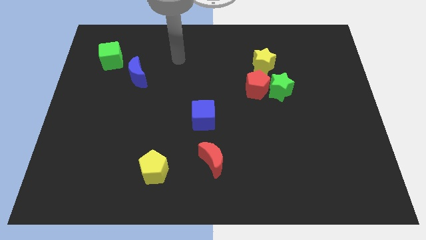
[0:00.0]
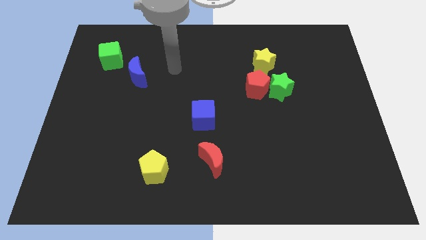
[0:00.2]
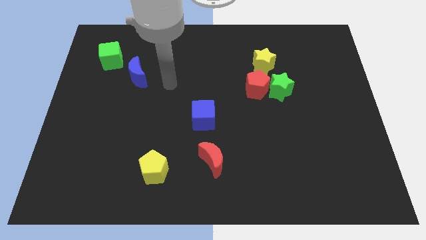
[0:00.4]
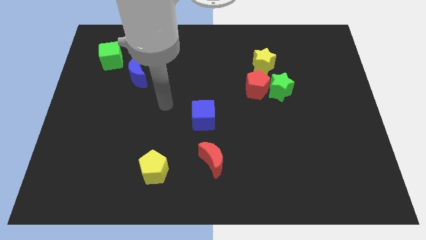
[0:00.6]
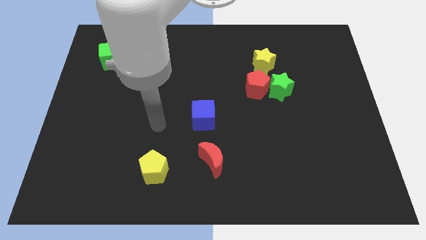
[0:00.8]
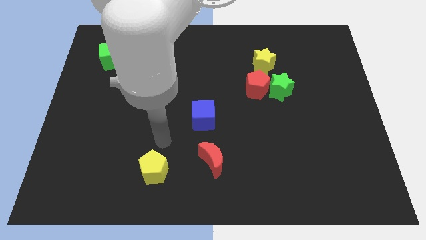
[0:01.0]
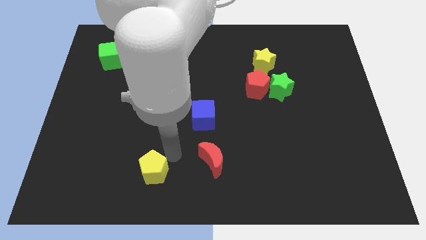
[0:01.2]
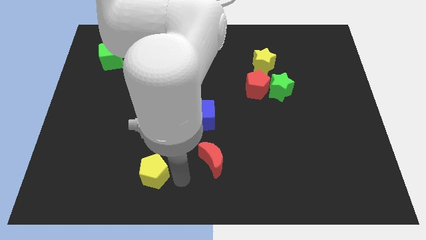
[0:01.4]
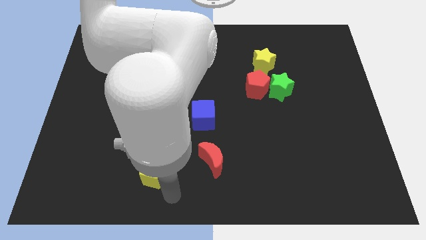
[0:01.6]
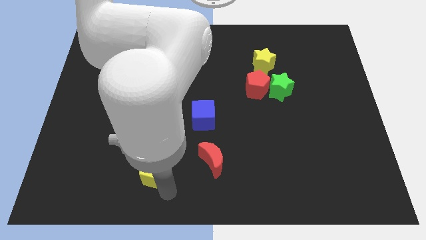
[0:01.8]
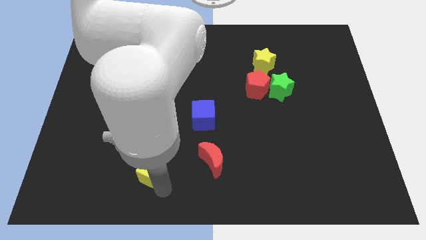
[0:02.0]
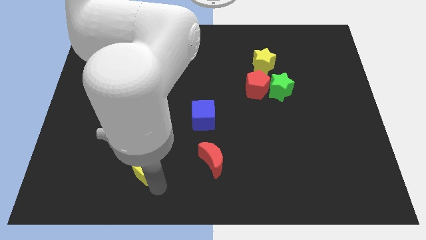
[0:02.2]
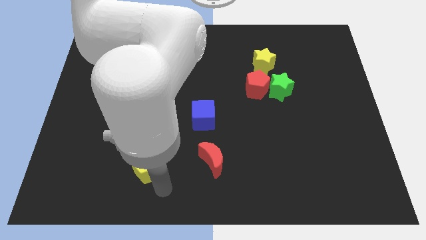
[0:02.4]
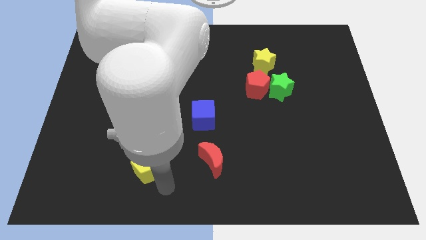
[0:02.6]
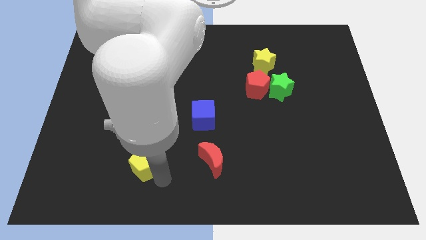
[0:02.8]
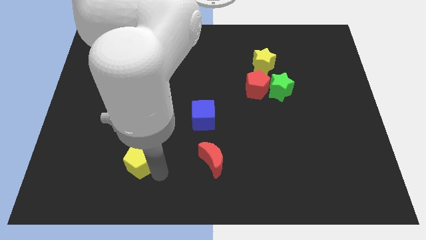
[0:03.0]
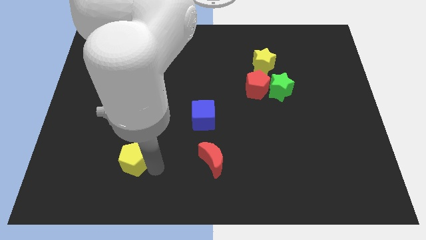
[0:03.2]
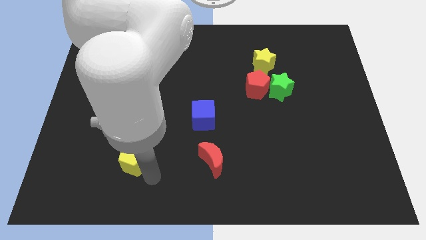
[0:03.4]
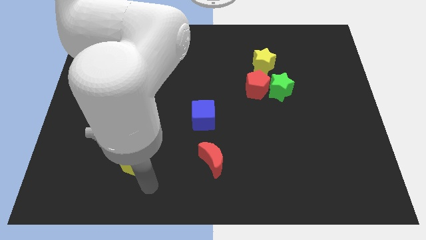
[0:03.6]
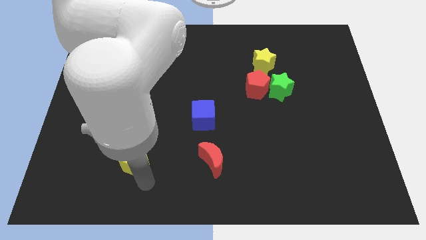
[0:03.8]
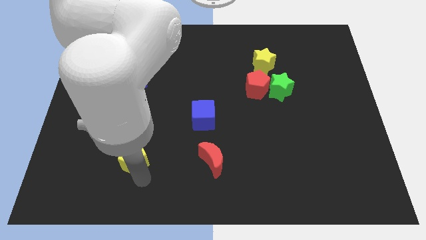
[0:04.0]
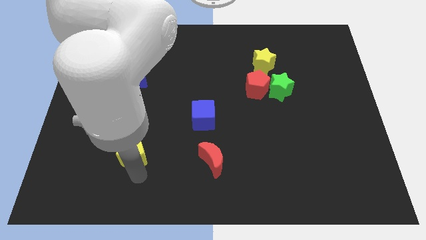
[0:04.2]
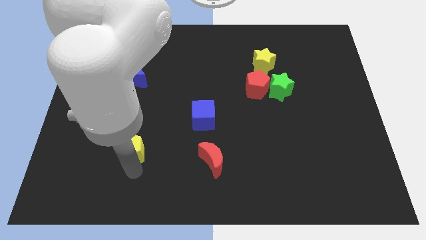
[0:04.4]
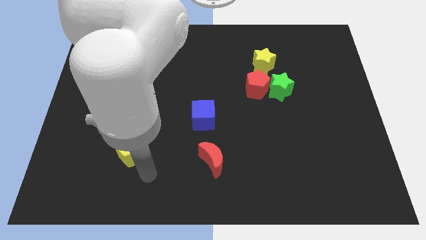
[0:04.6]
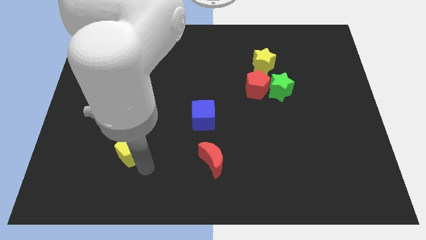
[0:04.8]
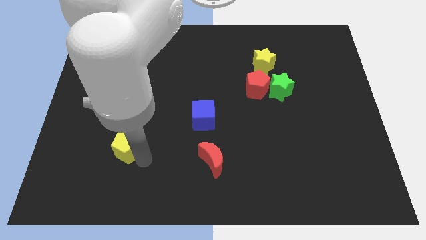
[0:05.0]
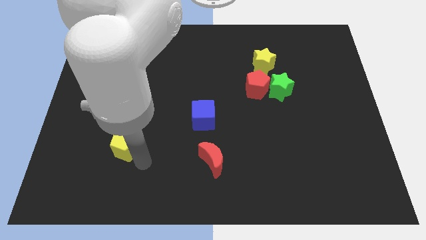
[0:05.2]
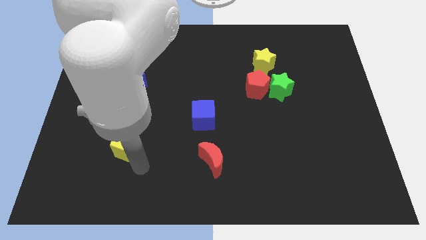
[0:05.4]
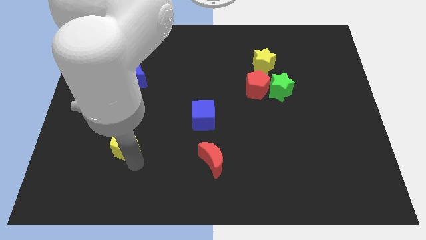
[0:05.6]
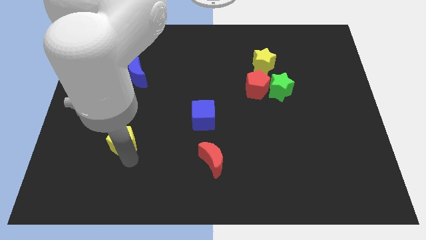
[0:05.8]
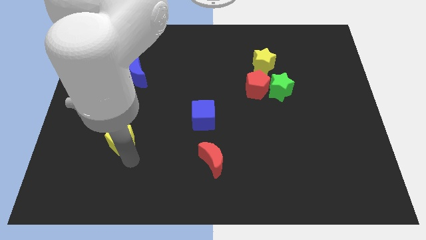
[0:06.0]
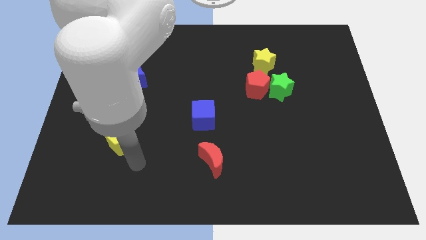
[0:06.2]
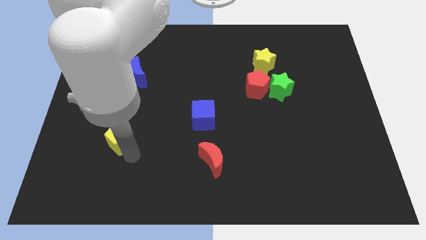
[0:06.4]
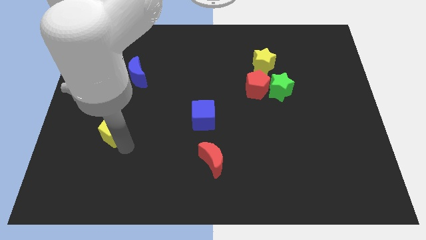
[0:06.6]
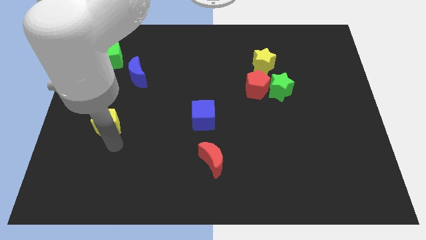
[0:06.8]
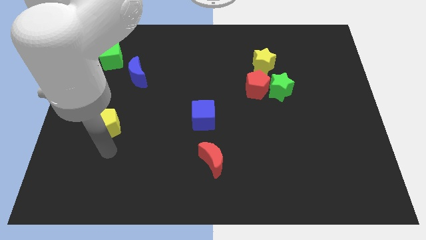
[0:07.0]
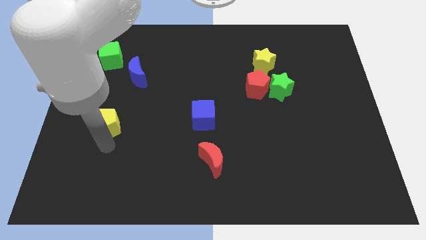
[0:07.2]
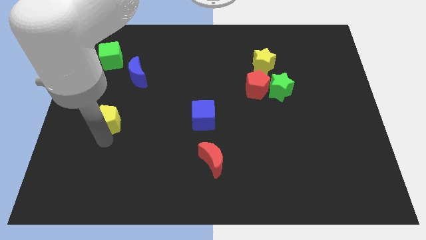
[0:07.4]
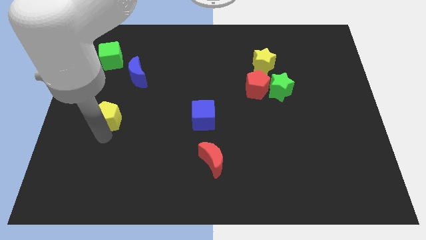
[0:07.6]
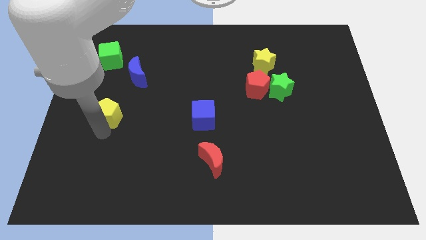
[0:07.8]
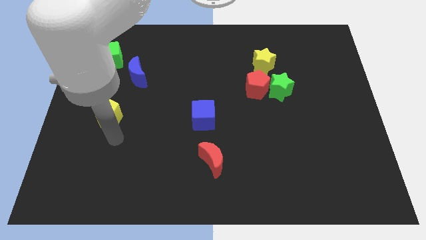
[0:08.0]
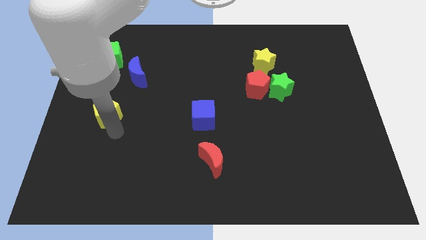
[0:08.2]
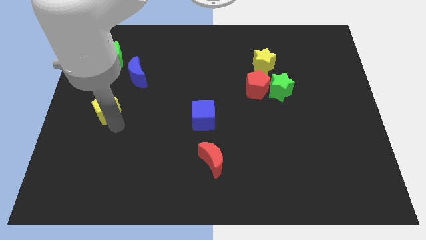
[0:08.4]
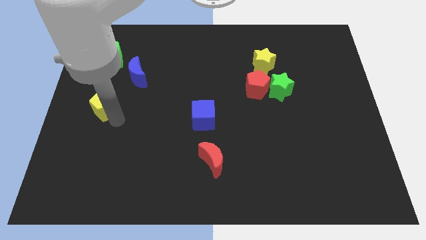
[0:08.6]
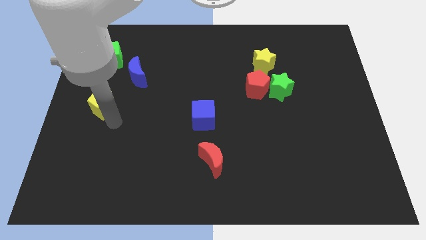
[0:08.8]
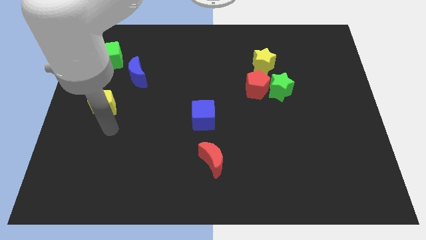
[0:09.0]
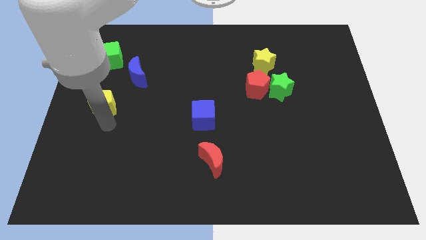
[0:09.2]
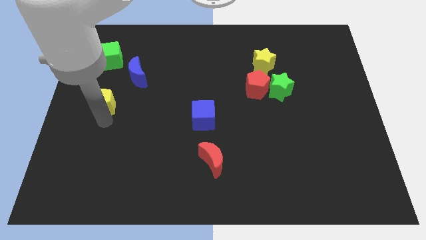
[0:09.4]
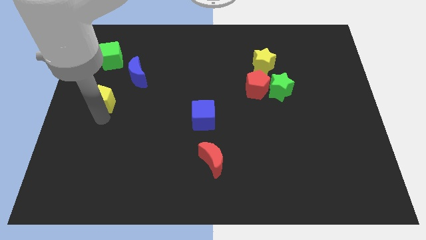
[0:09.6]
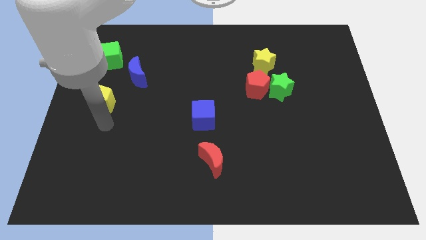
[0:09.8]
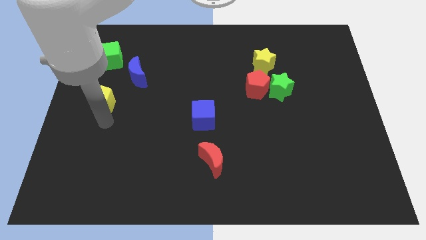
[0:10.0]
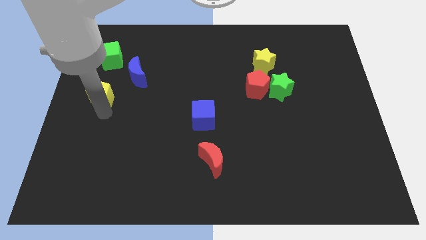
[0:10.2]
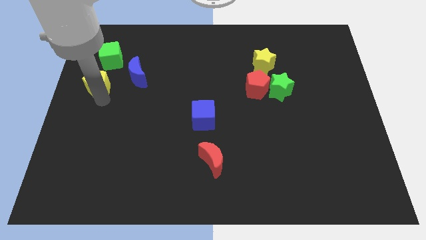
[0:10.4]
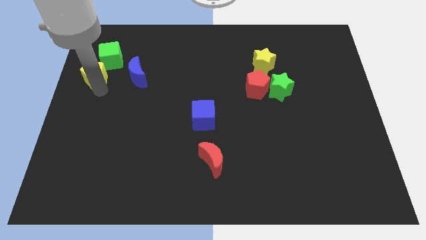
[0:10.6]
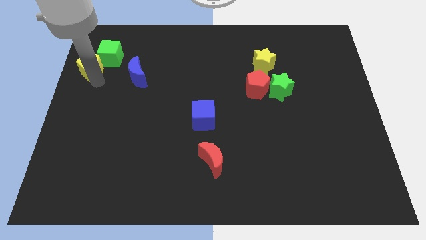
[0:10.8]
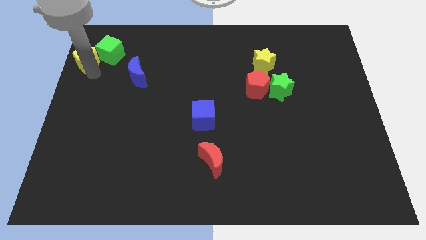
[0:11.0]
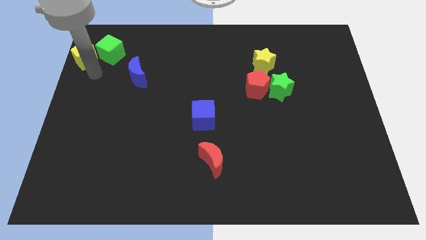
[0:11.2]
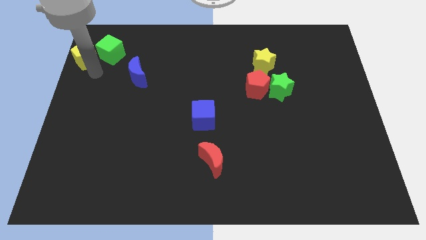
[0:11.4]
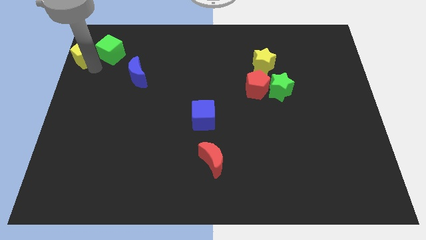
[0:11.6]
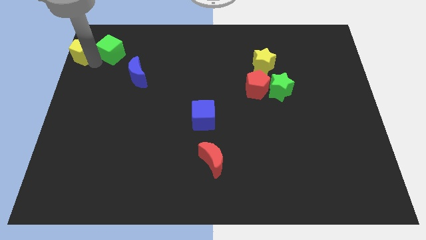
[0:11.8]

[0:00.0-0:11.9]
move the yellow pentagon to the top left corner
